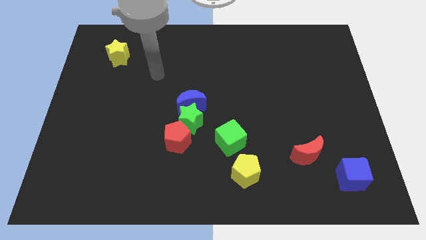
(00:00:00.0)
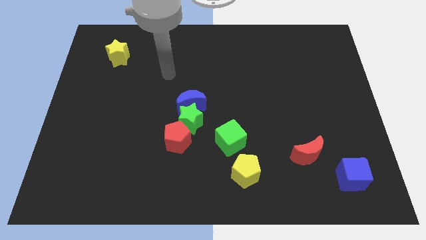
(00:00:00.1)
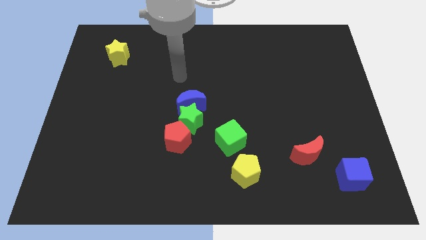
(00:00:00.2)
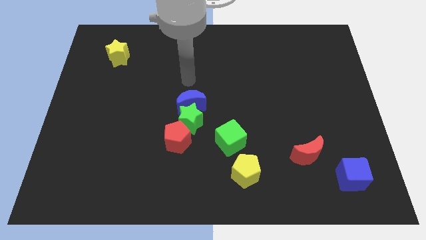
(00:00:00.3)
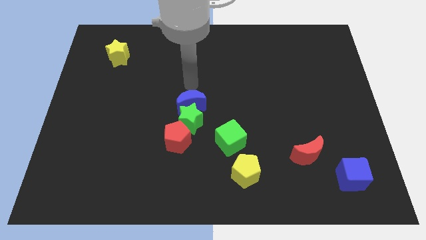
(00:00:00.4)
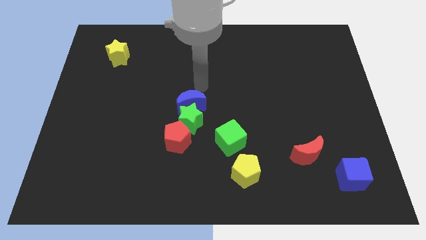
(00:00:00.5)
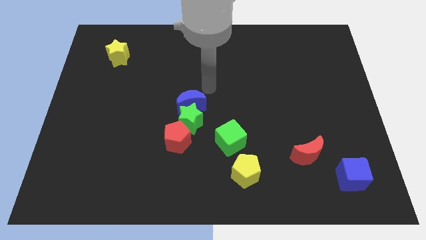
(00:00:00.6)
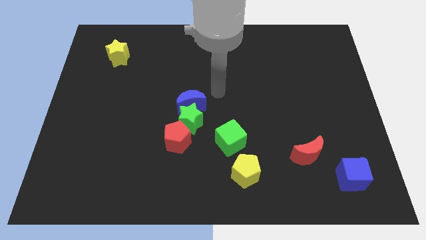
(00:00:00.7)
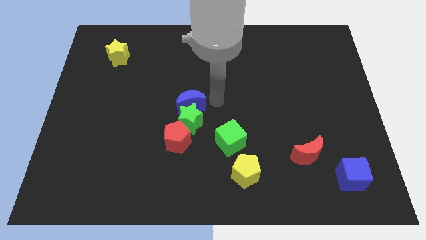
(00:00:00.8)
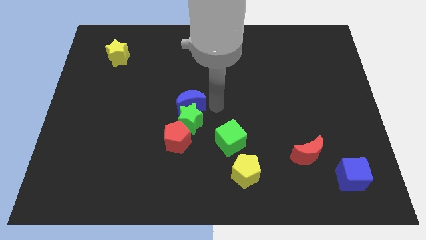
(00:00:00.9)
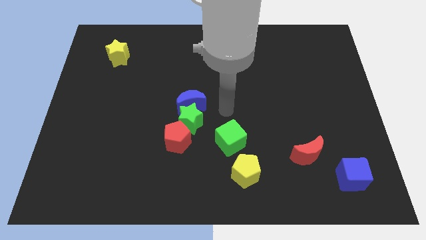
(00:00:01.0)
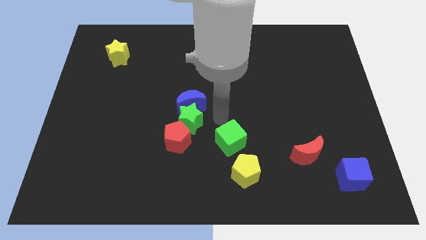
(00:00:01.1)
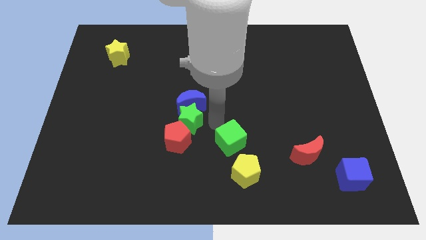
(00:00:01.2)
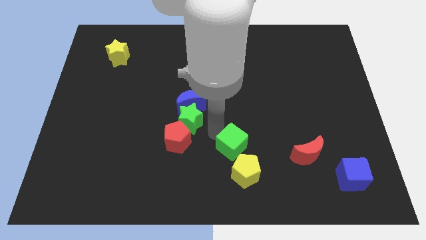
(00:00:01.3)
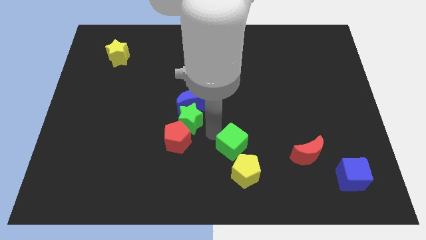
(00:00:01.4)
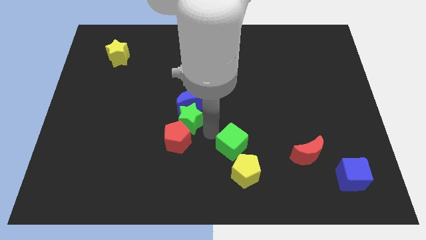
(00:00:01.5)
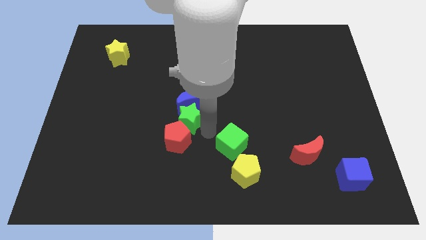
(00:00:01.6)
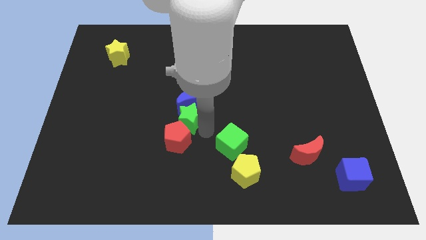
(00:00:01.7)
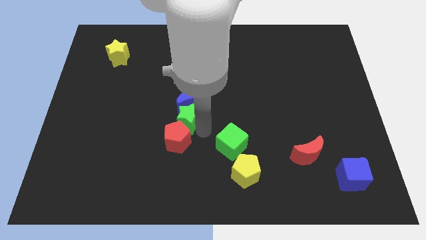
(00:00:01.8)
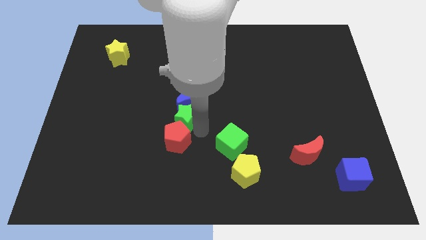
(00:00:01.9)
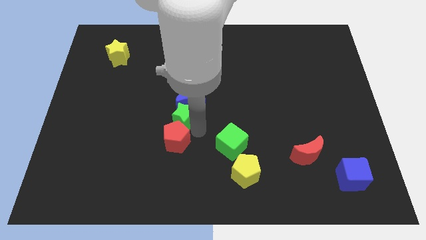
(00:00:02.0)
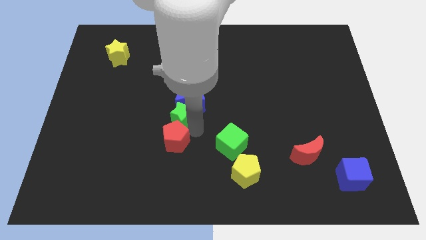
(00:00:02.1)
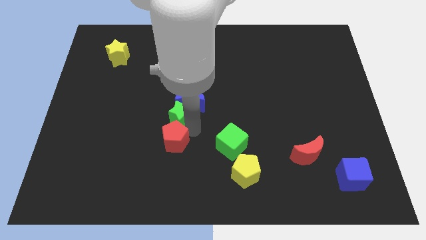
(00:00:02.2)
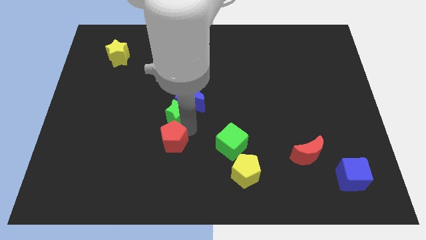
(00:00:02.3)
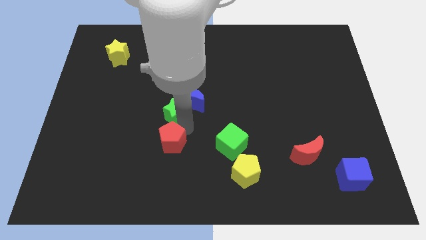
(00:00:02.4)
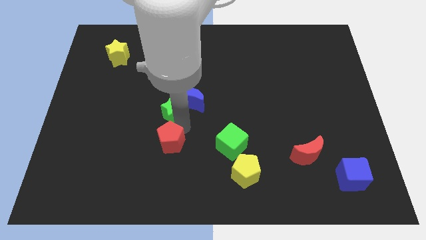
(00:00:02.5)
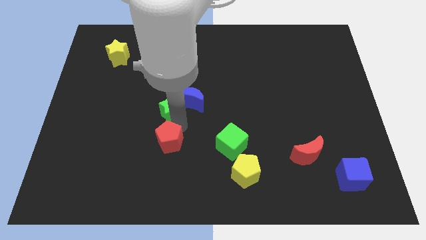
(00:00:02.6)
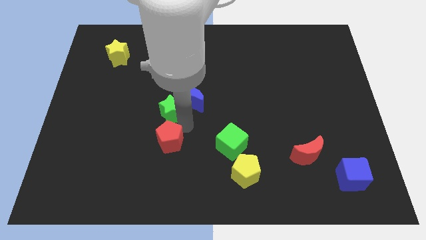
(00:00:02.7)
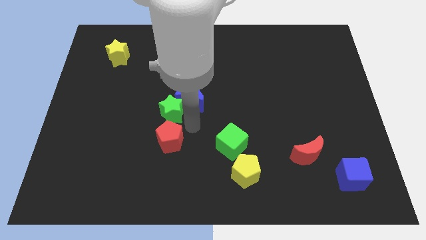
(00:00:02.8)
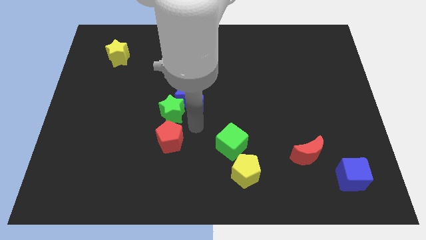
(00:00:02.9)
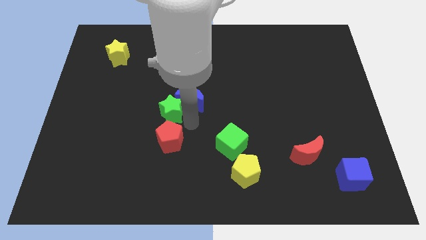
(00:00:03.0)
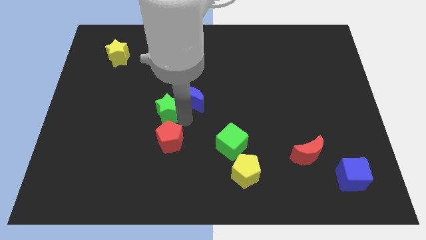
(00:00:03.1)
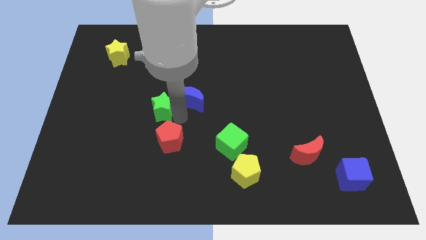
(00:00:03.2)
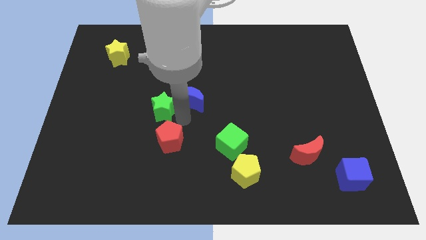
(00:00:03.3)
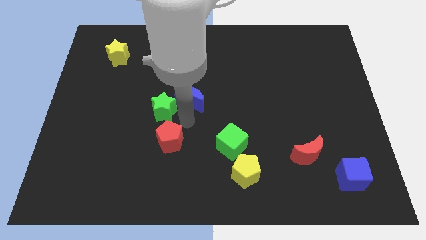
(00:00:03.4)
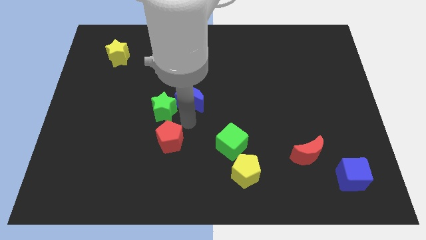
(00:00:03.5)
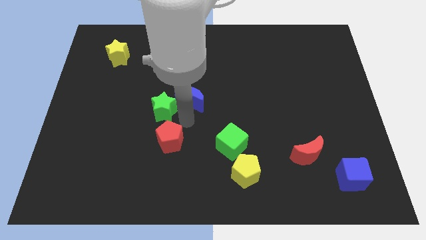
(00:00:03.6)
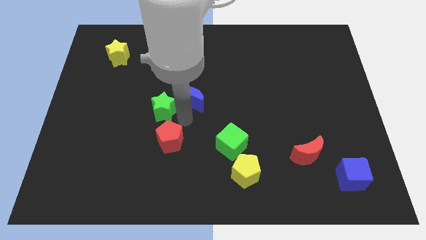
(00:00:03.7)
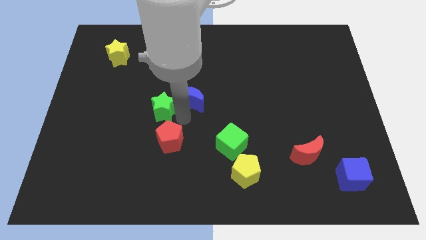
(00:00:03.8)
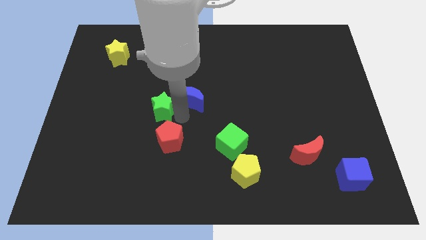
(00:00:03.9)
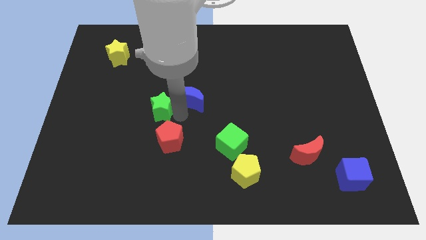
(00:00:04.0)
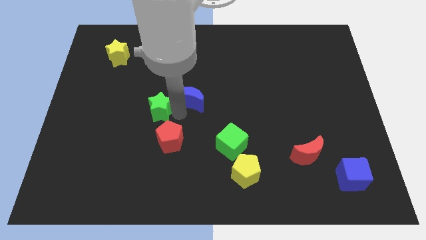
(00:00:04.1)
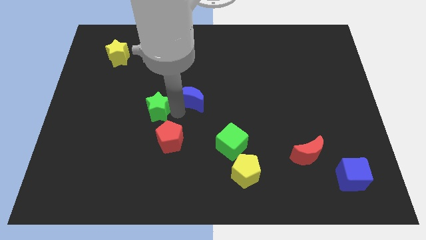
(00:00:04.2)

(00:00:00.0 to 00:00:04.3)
move the green star away from the group of blocks

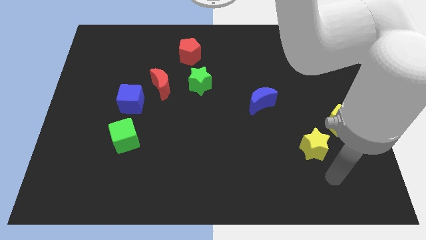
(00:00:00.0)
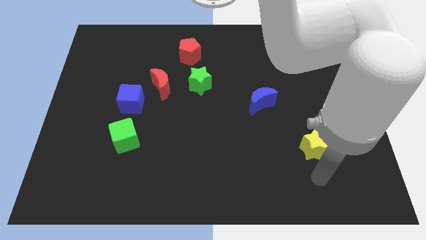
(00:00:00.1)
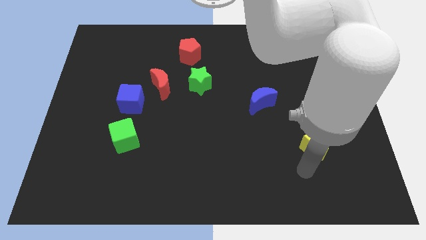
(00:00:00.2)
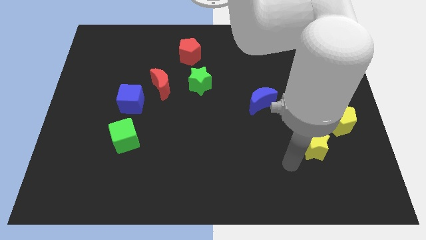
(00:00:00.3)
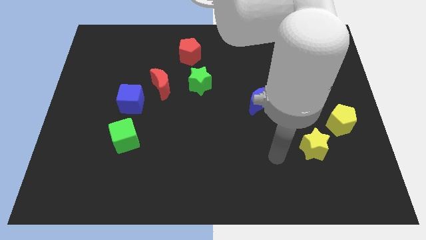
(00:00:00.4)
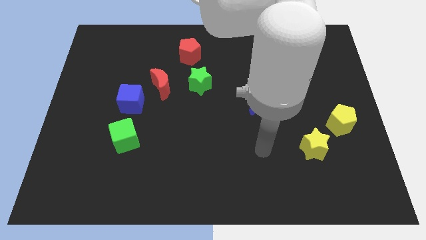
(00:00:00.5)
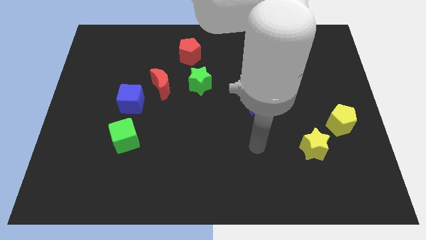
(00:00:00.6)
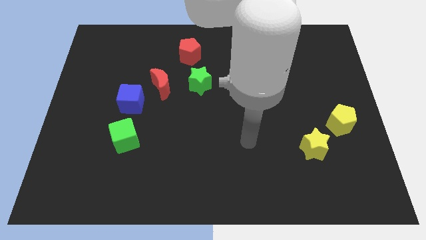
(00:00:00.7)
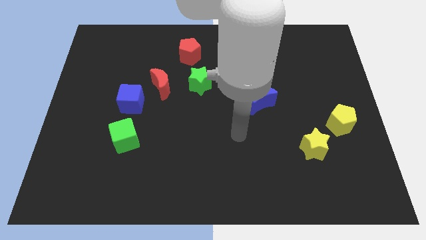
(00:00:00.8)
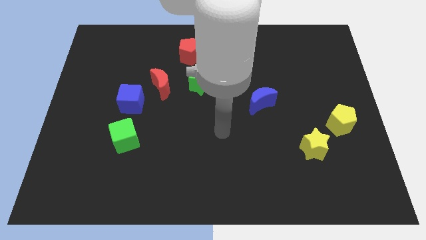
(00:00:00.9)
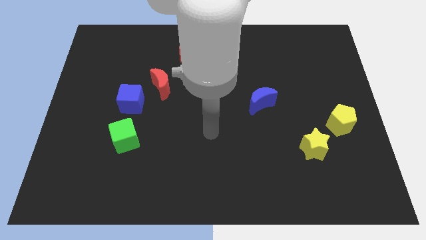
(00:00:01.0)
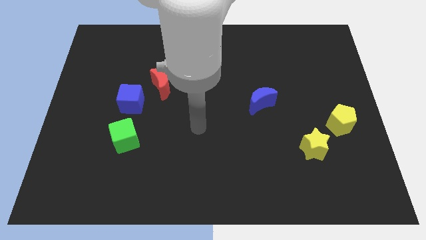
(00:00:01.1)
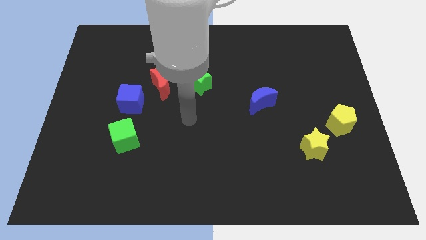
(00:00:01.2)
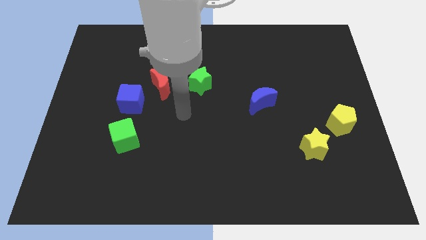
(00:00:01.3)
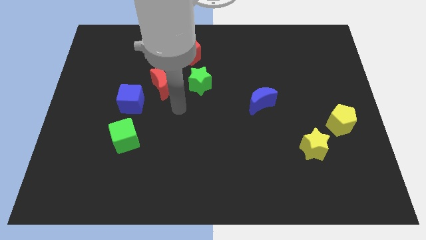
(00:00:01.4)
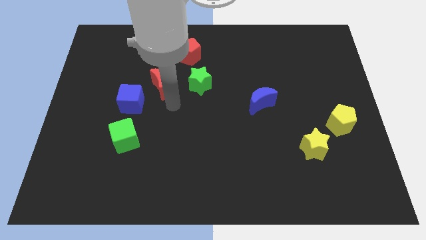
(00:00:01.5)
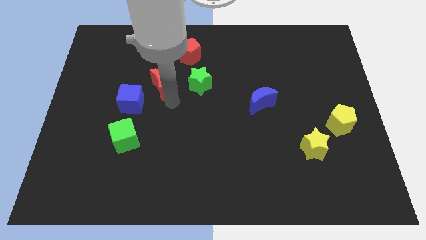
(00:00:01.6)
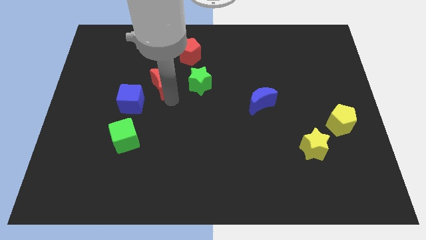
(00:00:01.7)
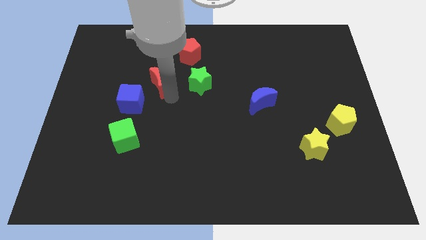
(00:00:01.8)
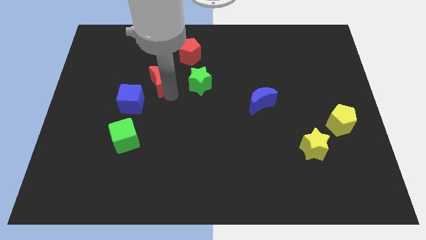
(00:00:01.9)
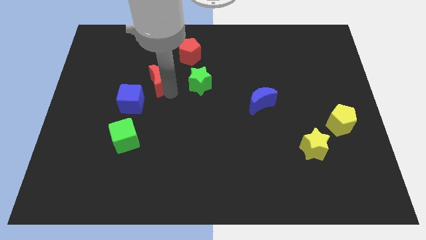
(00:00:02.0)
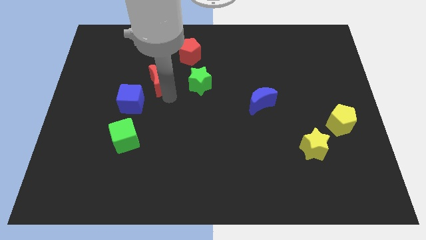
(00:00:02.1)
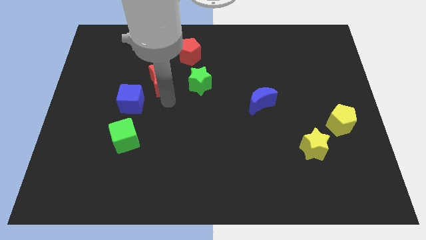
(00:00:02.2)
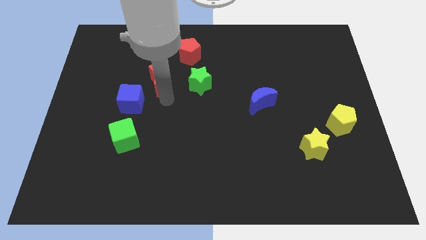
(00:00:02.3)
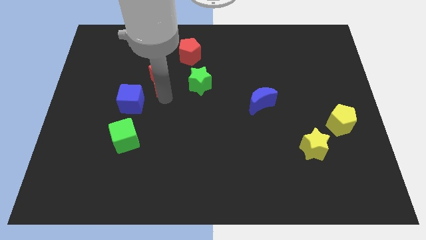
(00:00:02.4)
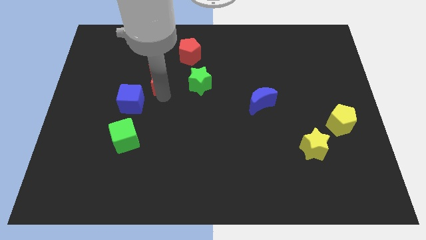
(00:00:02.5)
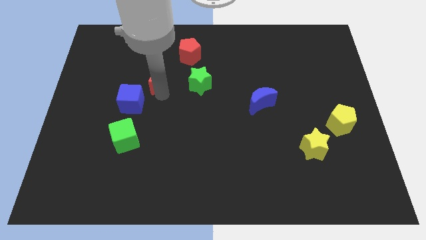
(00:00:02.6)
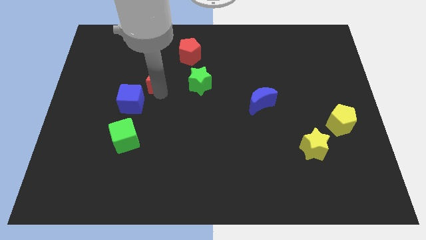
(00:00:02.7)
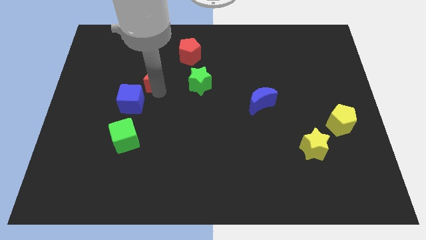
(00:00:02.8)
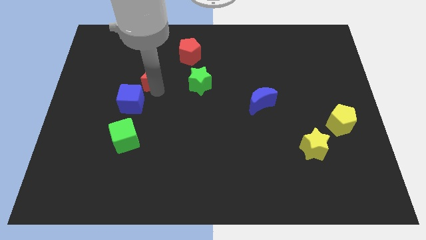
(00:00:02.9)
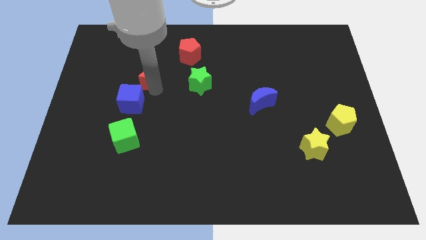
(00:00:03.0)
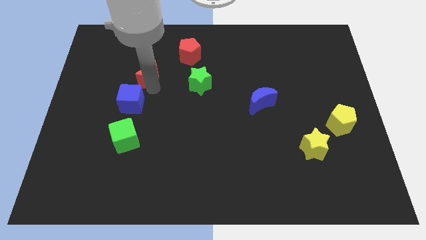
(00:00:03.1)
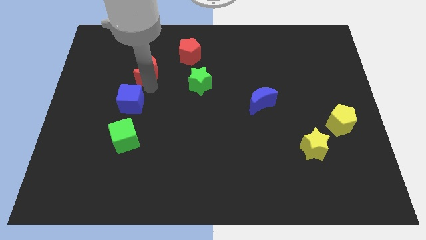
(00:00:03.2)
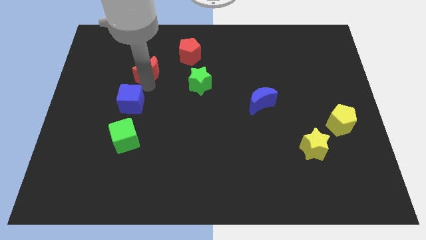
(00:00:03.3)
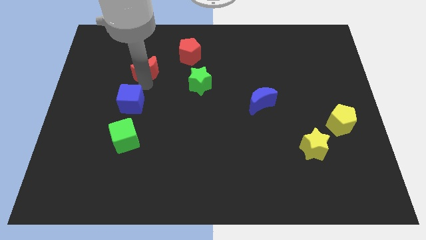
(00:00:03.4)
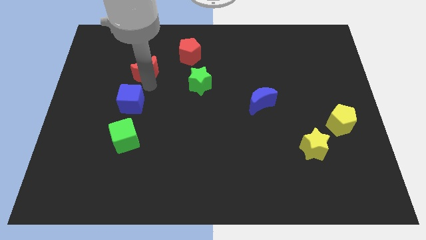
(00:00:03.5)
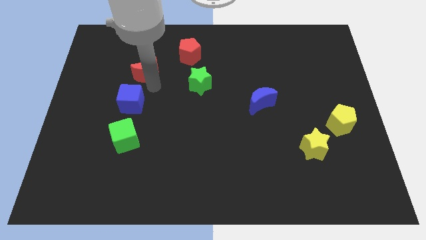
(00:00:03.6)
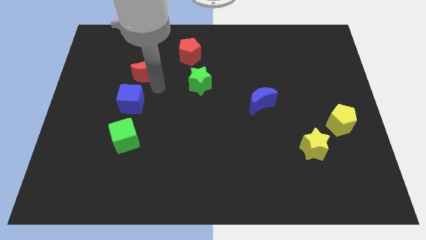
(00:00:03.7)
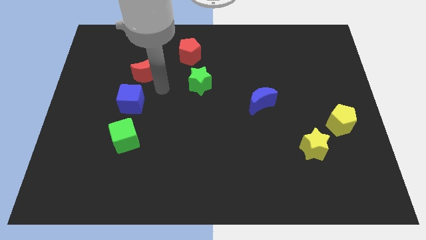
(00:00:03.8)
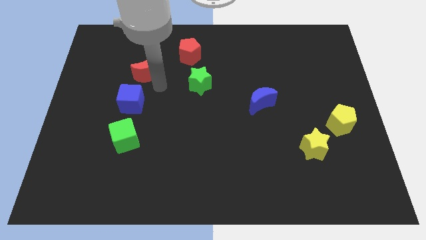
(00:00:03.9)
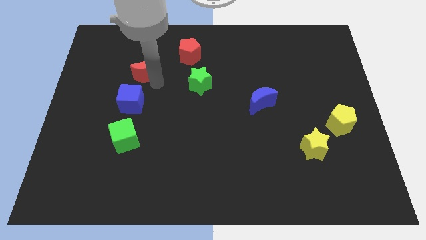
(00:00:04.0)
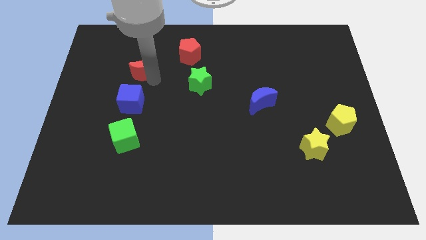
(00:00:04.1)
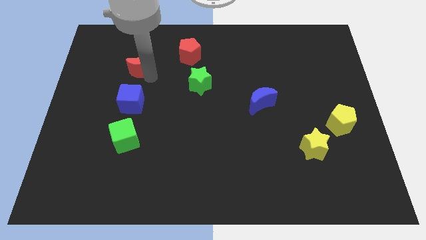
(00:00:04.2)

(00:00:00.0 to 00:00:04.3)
pull the red moon apart from the blue cube and green star

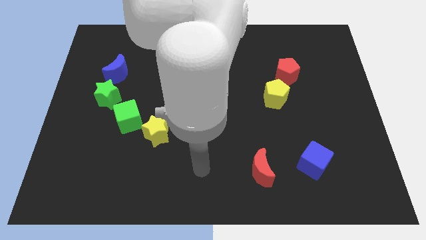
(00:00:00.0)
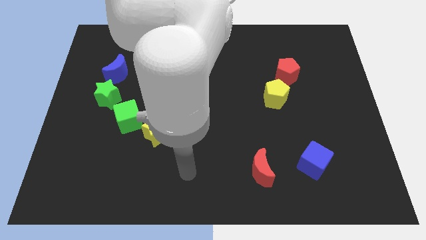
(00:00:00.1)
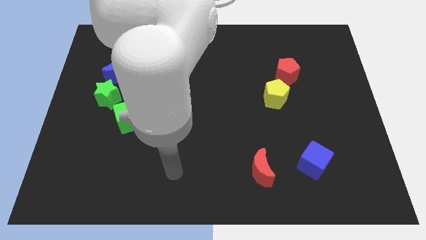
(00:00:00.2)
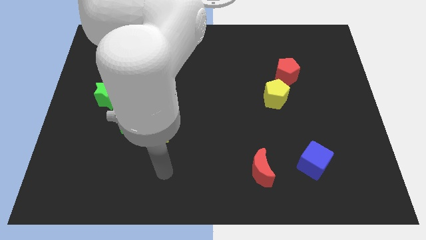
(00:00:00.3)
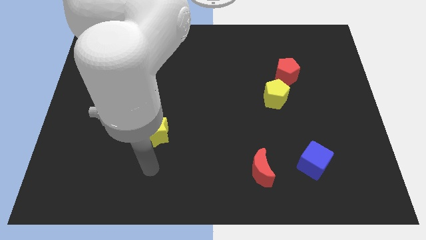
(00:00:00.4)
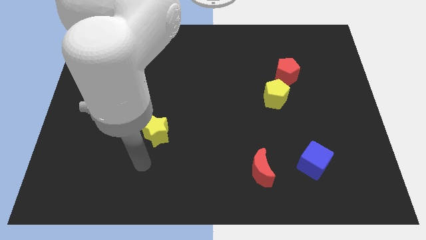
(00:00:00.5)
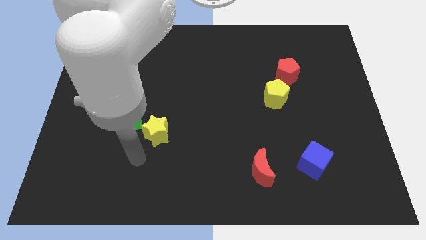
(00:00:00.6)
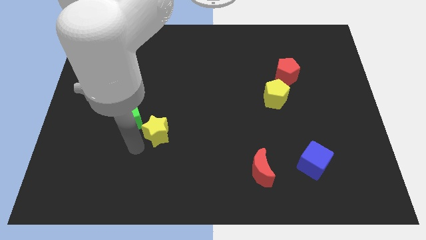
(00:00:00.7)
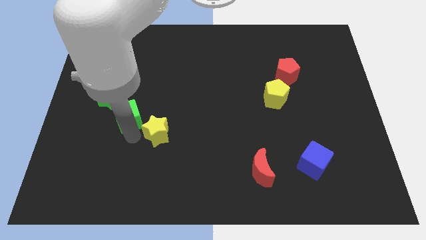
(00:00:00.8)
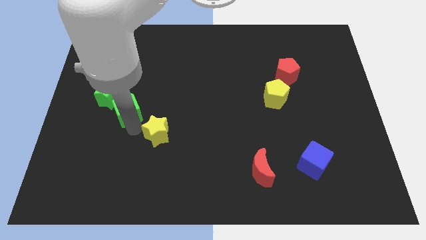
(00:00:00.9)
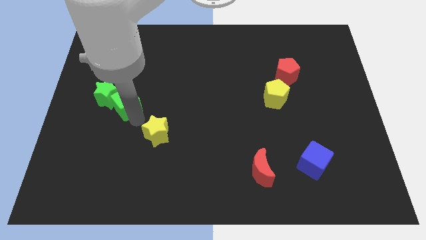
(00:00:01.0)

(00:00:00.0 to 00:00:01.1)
pull the yellow star apart from the green cube
